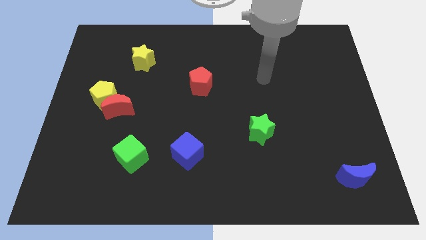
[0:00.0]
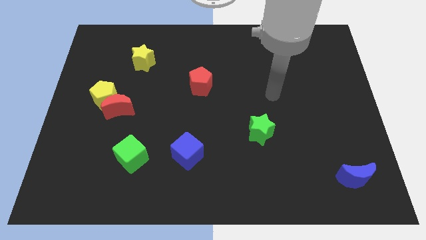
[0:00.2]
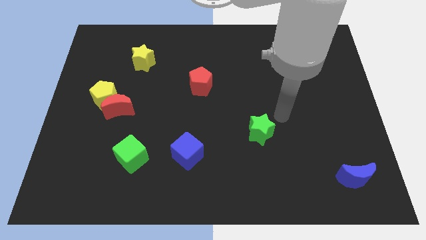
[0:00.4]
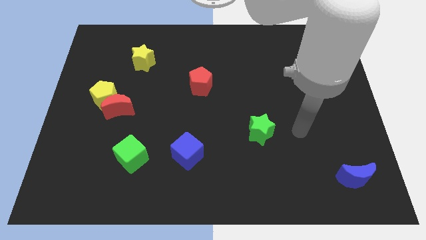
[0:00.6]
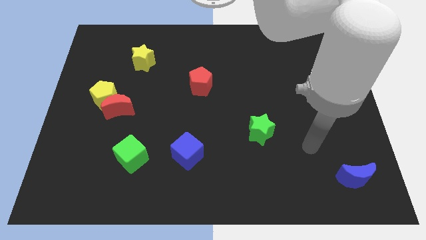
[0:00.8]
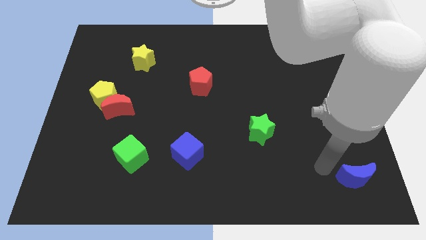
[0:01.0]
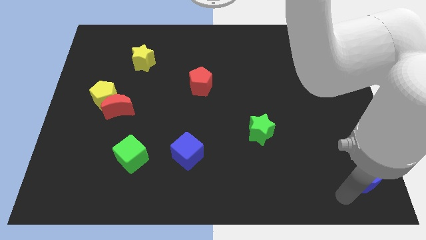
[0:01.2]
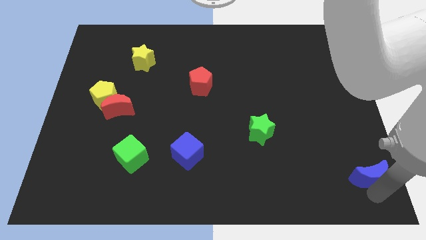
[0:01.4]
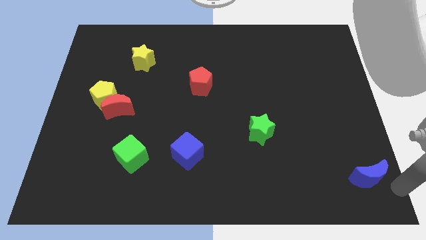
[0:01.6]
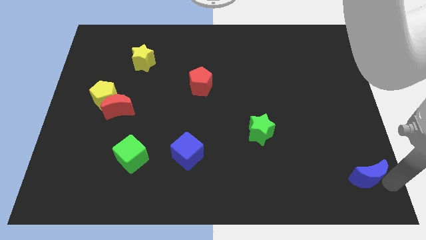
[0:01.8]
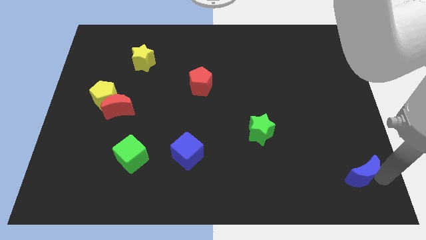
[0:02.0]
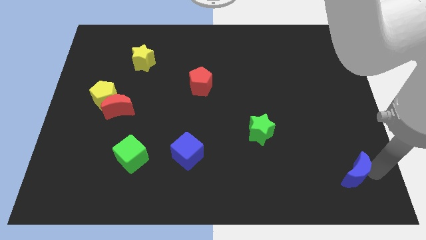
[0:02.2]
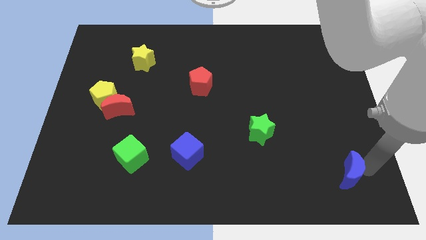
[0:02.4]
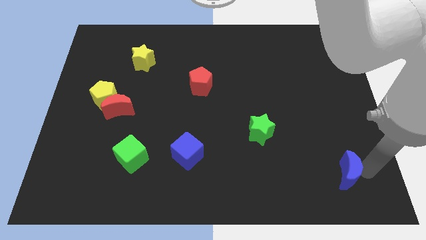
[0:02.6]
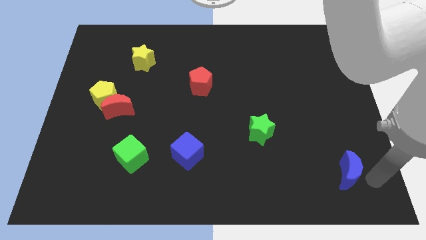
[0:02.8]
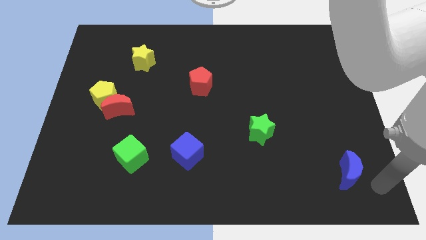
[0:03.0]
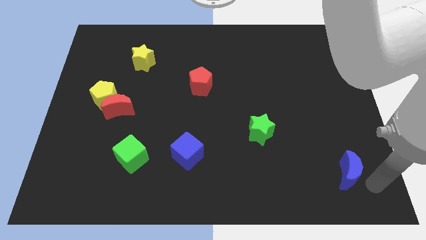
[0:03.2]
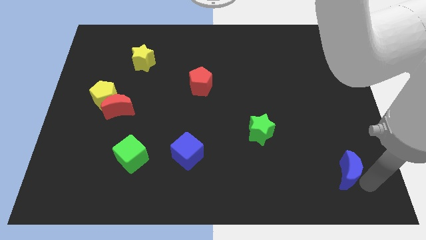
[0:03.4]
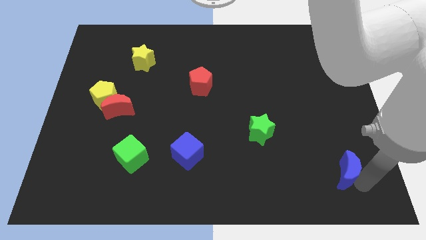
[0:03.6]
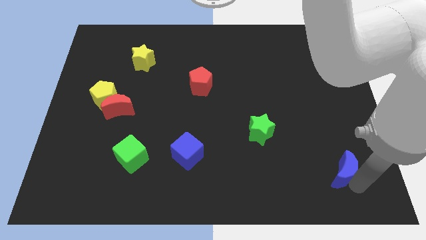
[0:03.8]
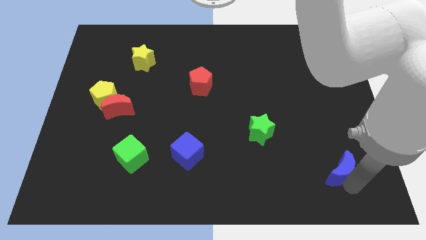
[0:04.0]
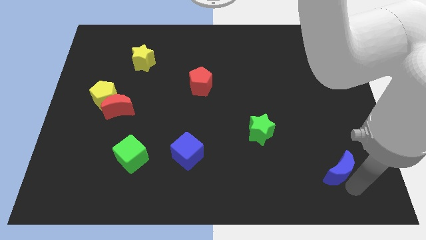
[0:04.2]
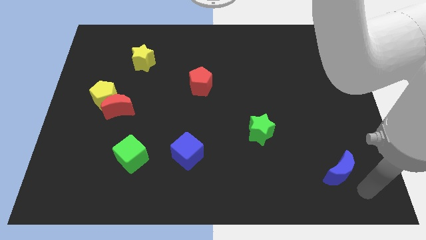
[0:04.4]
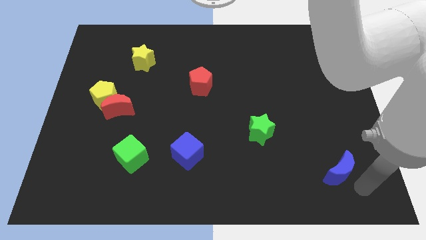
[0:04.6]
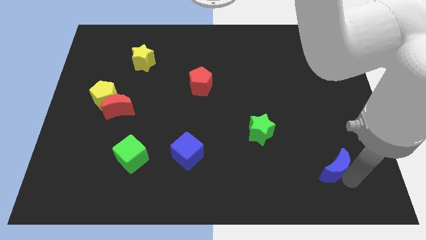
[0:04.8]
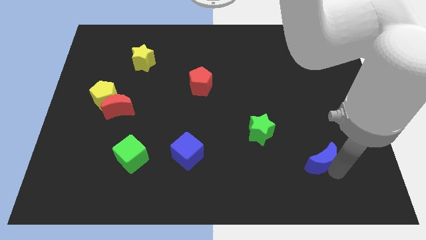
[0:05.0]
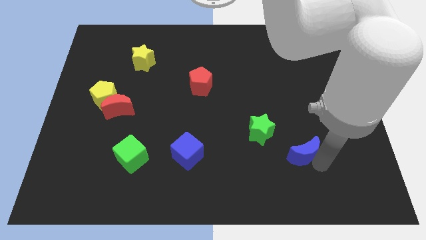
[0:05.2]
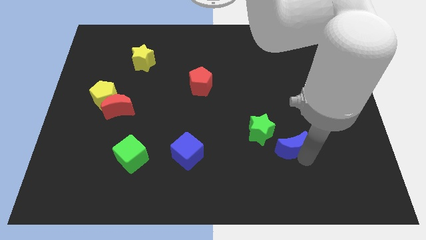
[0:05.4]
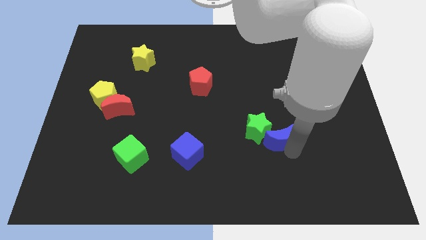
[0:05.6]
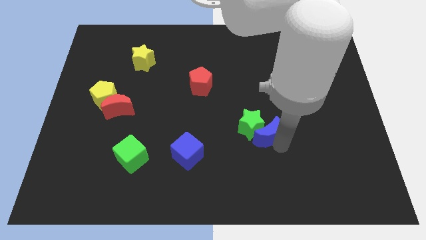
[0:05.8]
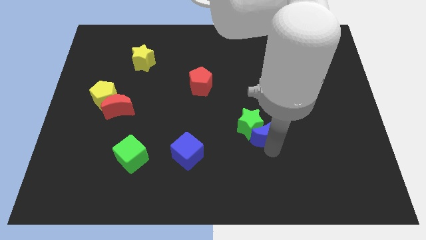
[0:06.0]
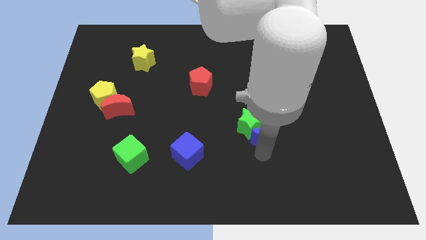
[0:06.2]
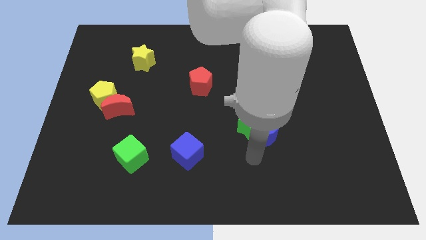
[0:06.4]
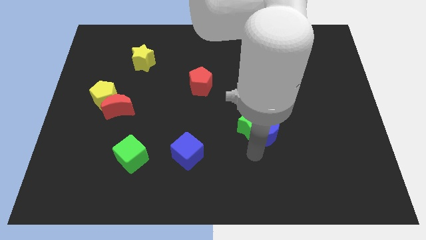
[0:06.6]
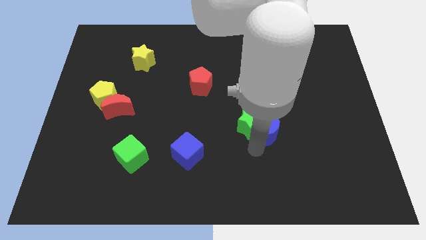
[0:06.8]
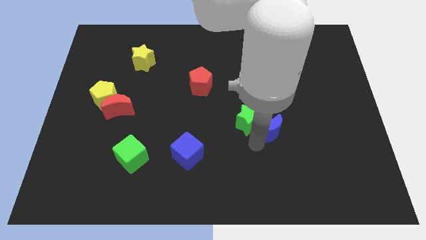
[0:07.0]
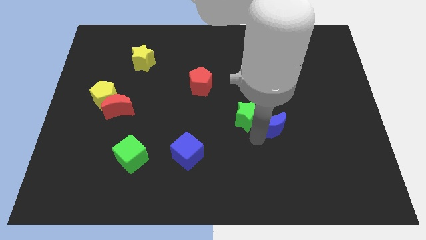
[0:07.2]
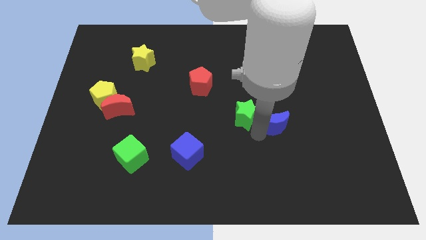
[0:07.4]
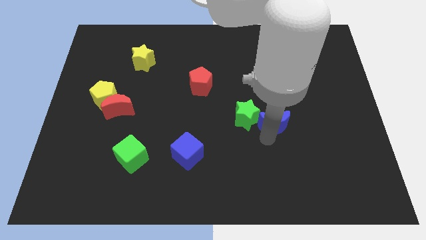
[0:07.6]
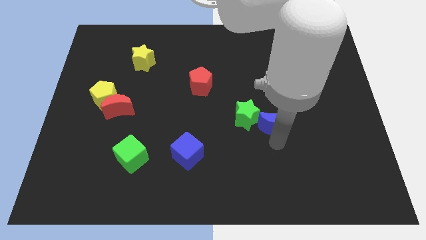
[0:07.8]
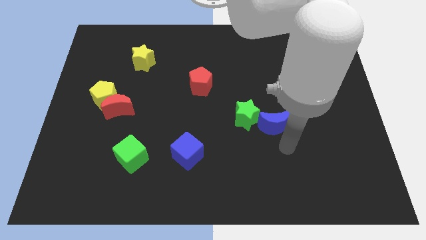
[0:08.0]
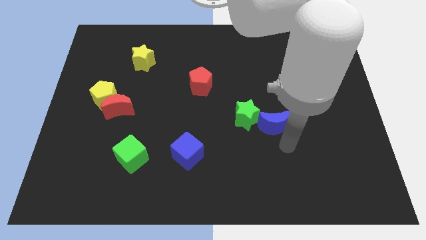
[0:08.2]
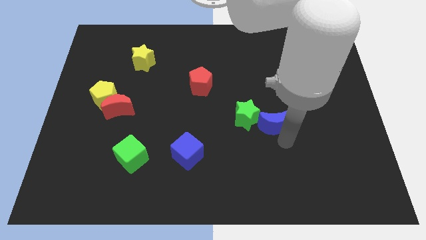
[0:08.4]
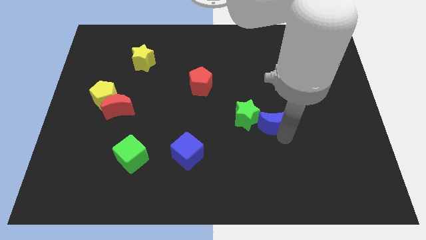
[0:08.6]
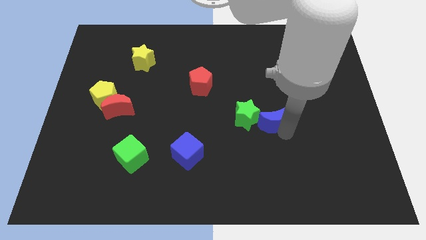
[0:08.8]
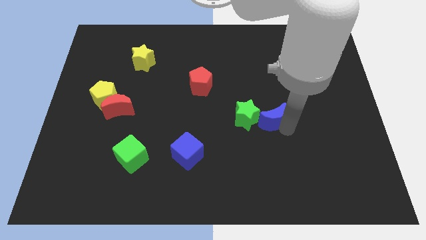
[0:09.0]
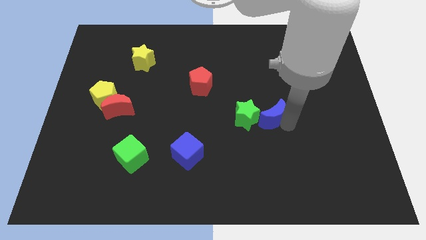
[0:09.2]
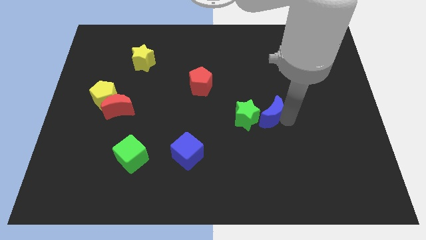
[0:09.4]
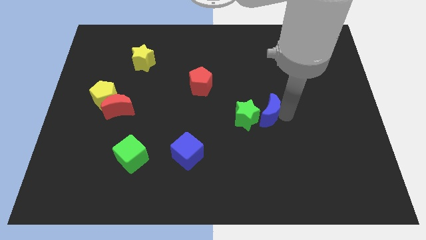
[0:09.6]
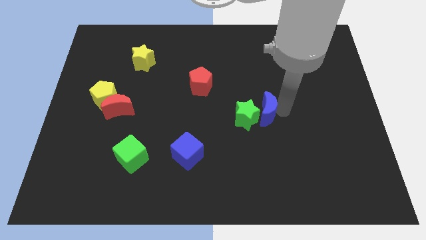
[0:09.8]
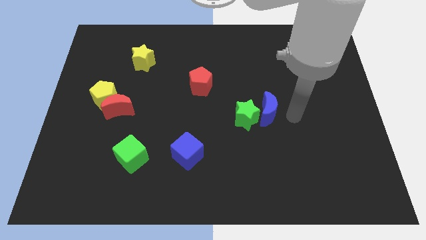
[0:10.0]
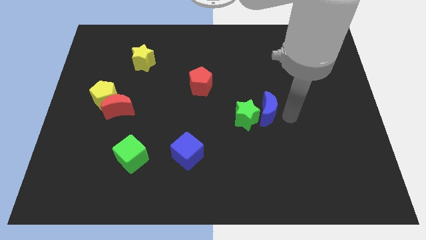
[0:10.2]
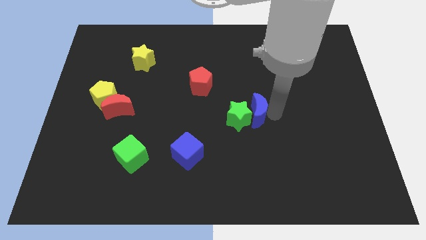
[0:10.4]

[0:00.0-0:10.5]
push the blue moon to the center

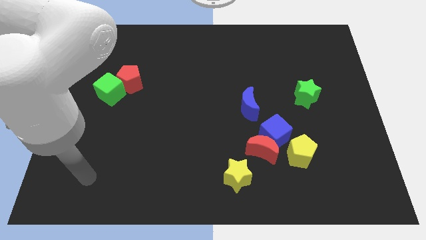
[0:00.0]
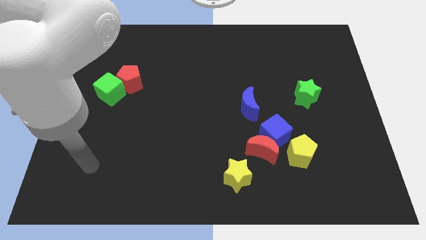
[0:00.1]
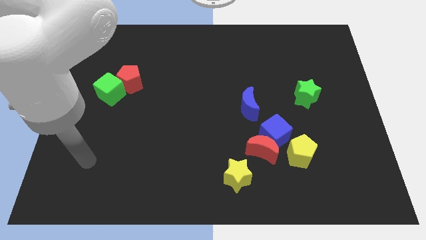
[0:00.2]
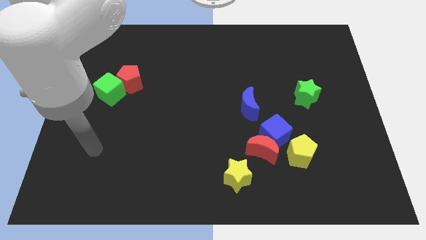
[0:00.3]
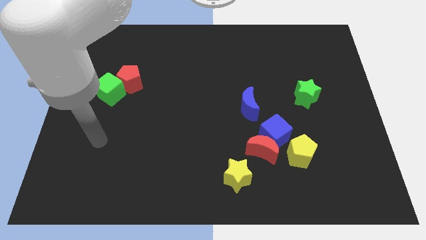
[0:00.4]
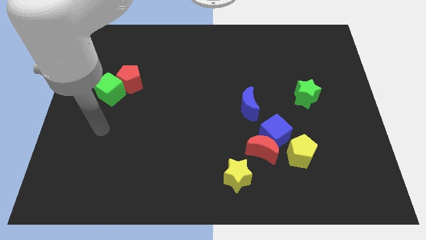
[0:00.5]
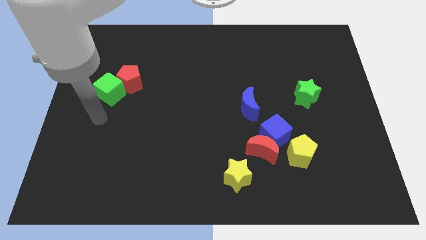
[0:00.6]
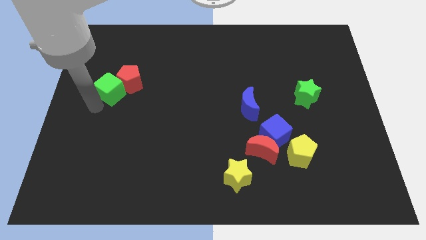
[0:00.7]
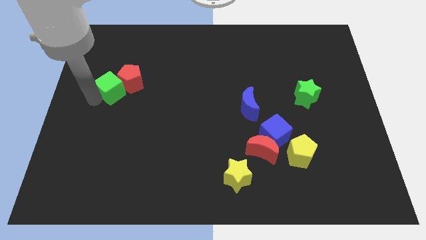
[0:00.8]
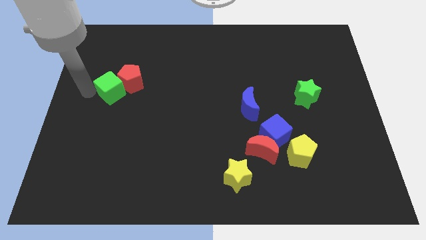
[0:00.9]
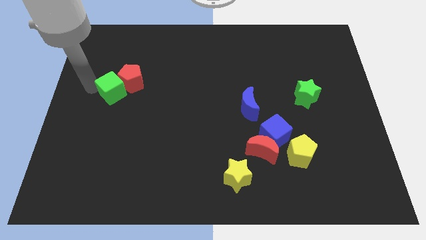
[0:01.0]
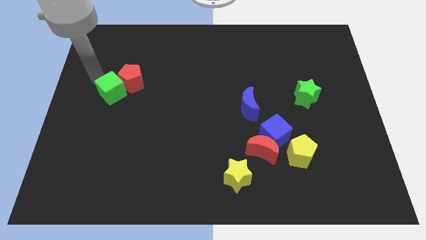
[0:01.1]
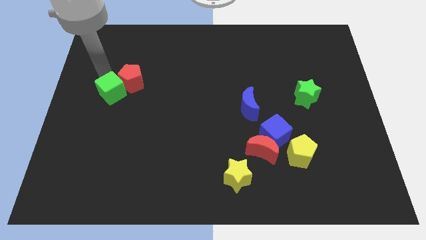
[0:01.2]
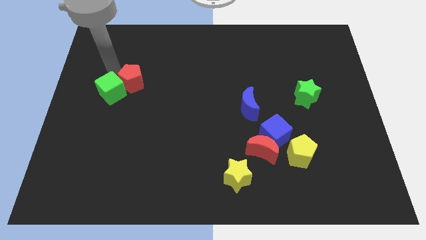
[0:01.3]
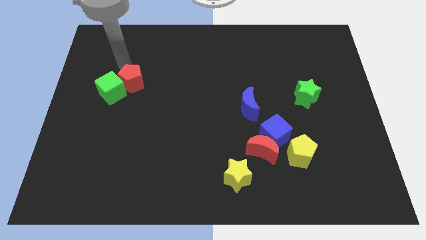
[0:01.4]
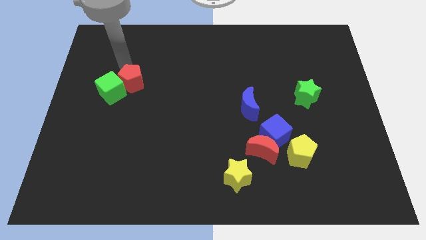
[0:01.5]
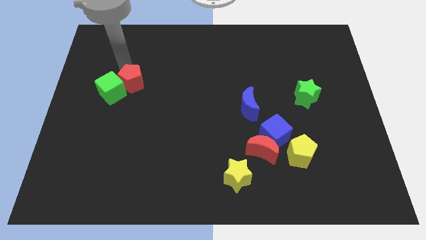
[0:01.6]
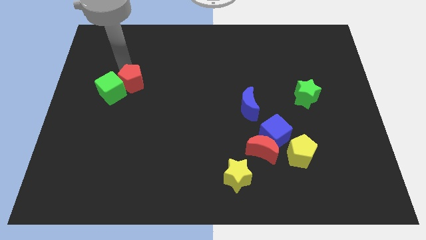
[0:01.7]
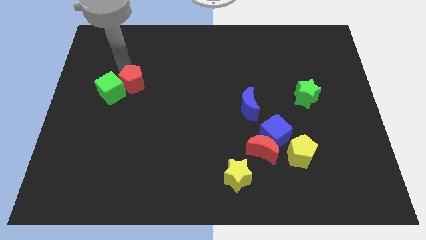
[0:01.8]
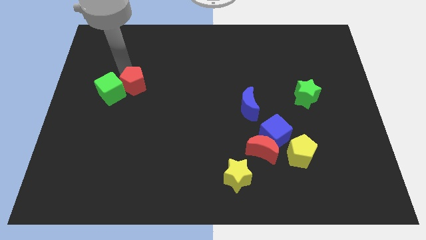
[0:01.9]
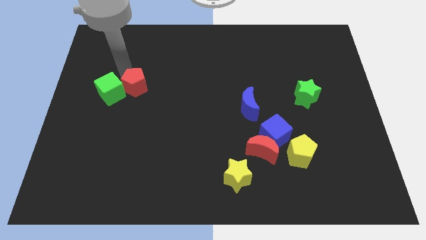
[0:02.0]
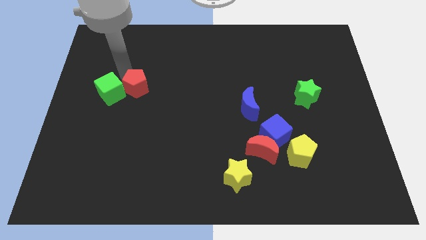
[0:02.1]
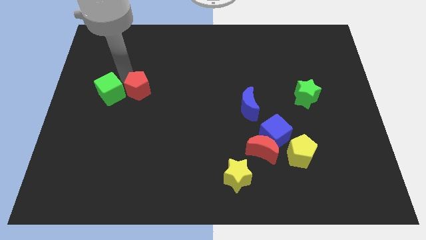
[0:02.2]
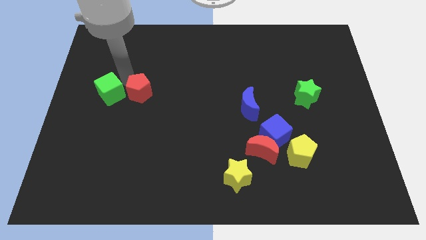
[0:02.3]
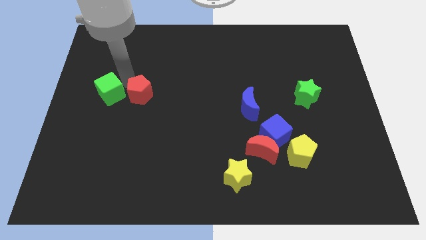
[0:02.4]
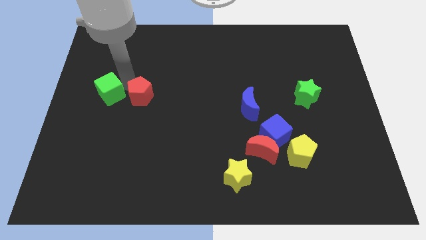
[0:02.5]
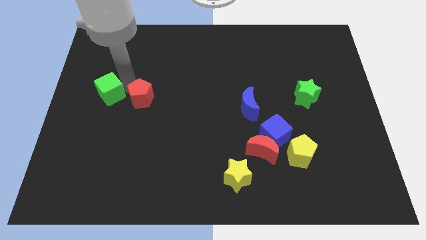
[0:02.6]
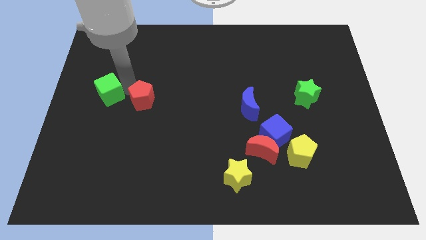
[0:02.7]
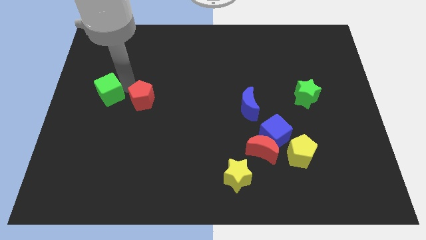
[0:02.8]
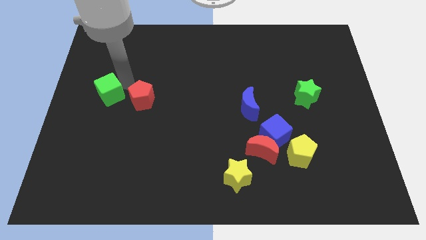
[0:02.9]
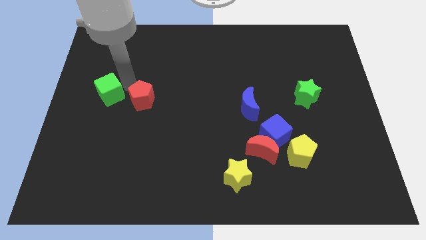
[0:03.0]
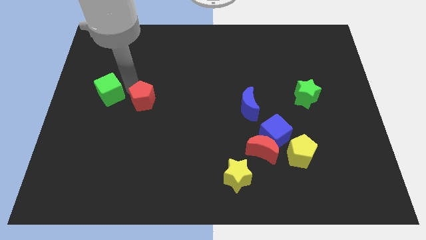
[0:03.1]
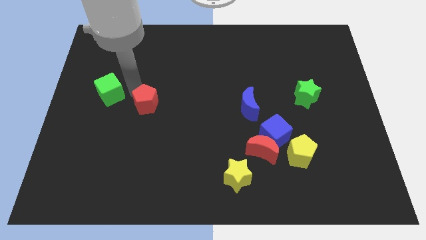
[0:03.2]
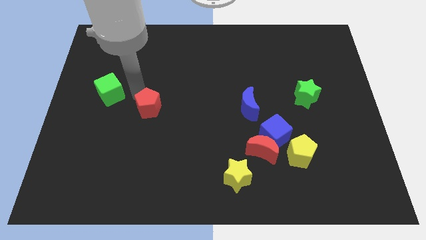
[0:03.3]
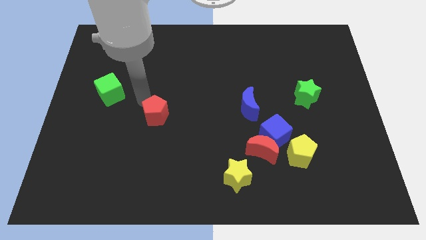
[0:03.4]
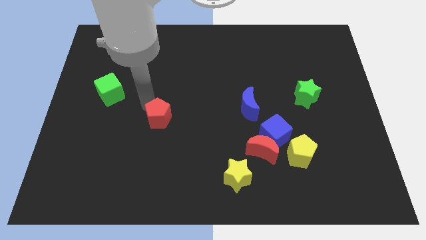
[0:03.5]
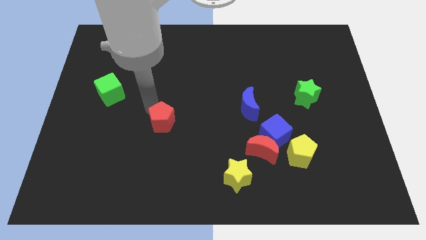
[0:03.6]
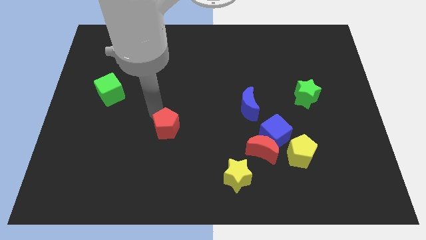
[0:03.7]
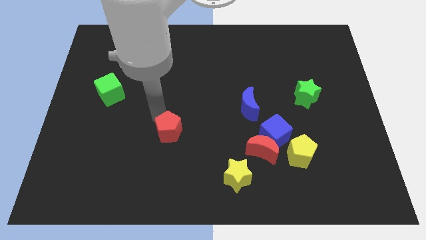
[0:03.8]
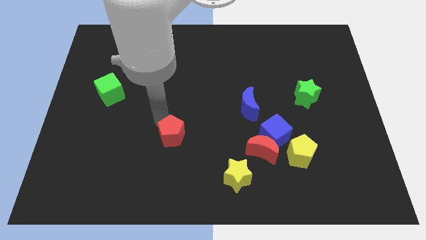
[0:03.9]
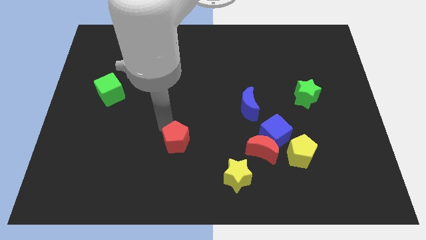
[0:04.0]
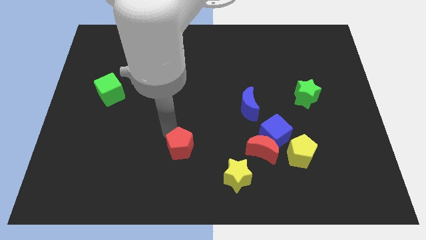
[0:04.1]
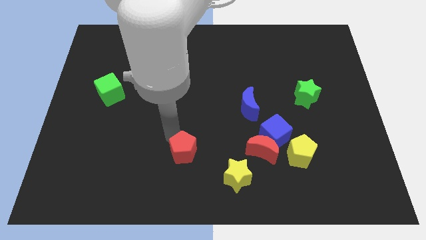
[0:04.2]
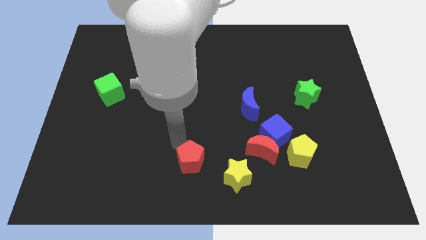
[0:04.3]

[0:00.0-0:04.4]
move the red pentagon to the bottom side
